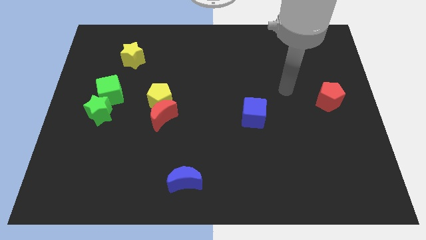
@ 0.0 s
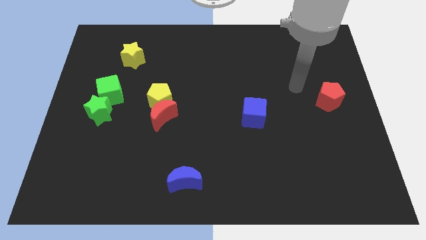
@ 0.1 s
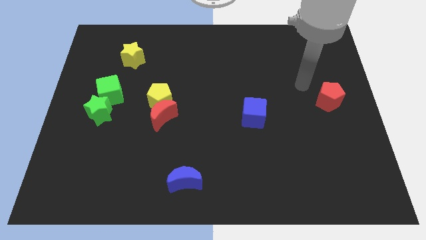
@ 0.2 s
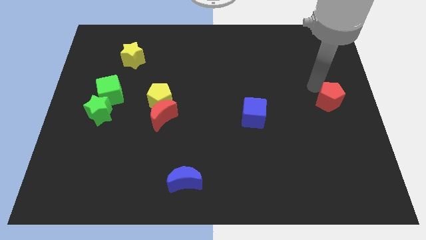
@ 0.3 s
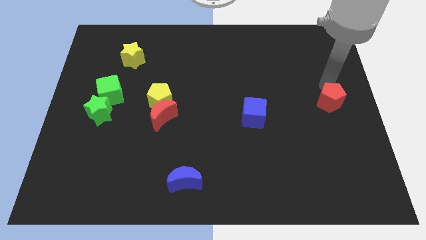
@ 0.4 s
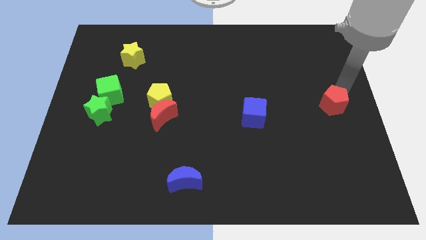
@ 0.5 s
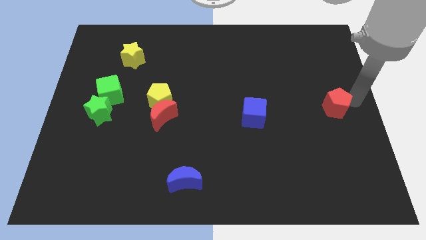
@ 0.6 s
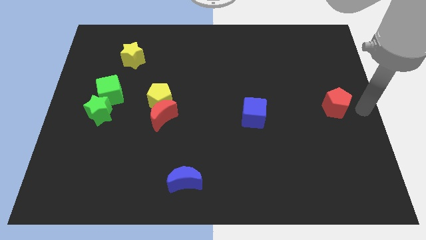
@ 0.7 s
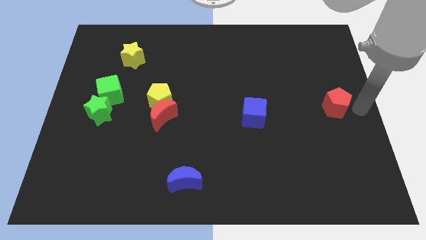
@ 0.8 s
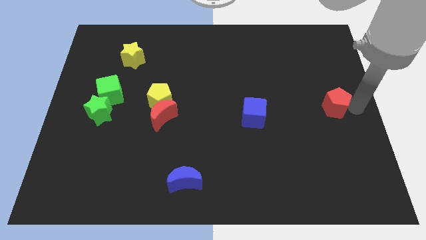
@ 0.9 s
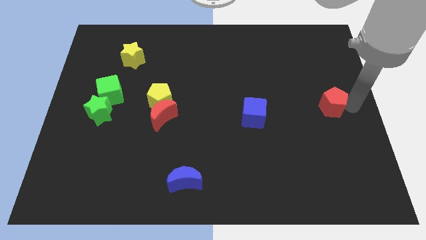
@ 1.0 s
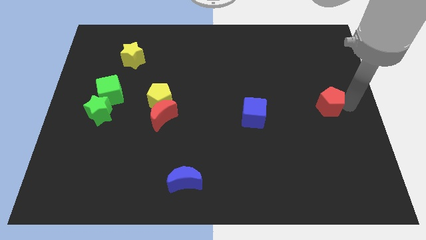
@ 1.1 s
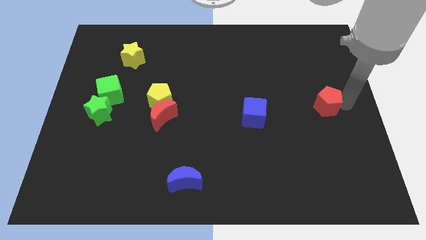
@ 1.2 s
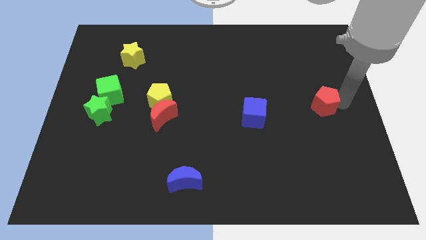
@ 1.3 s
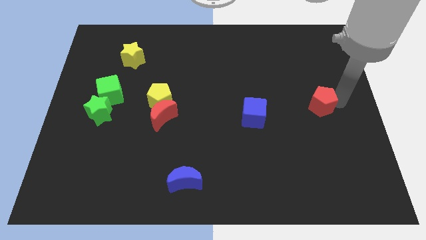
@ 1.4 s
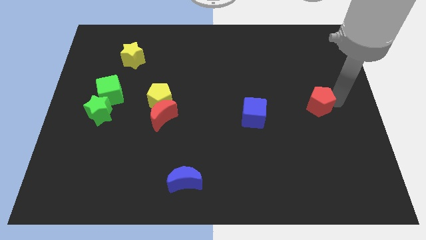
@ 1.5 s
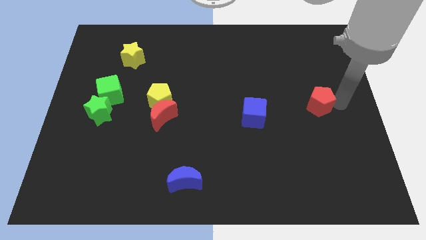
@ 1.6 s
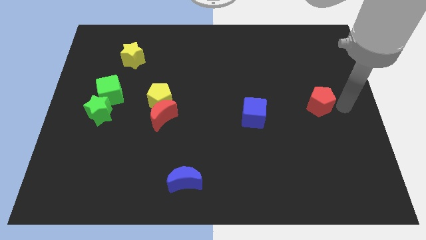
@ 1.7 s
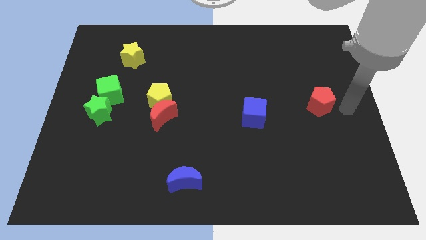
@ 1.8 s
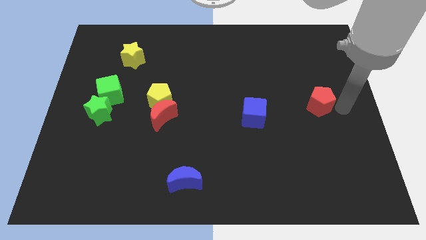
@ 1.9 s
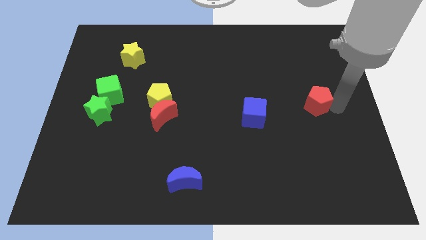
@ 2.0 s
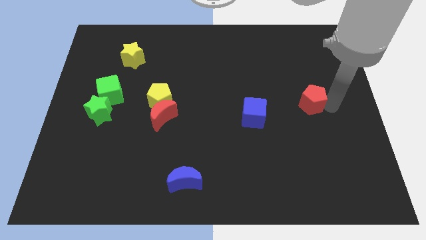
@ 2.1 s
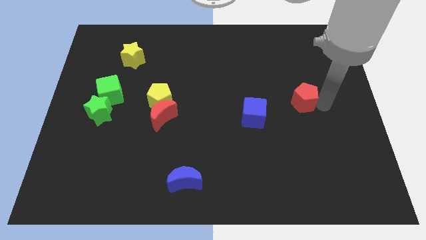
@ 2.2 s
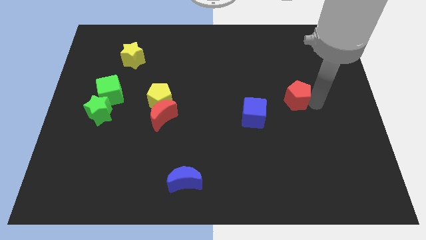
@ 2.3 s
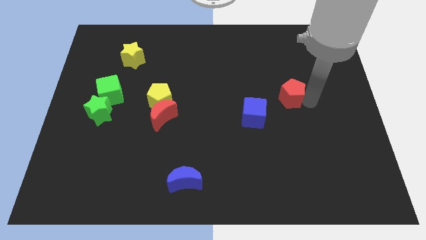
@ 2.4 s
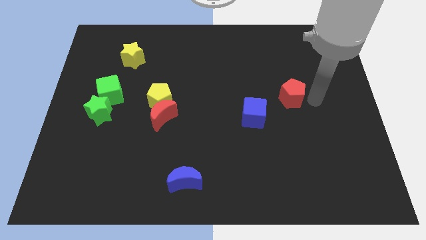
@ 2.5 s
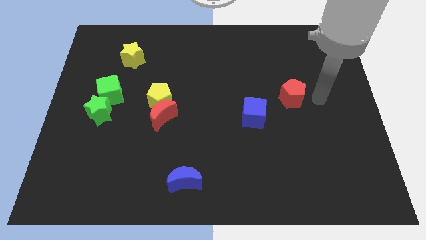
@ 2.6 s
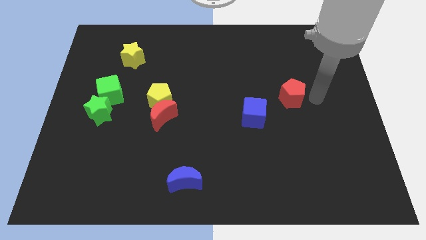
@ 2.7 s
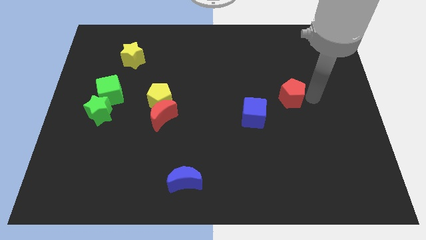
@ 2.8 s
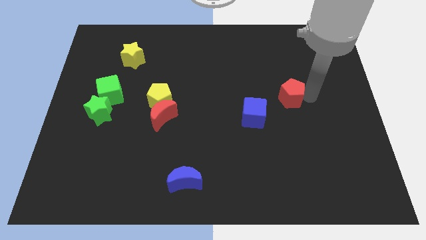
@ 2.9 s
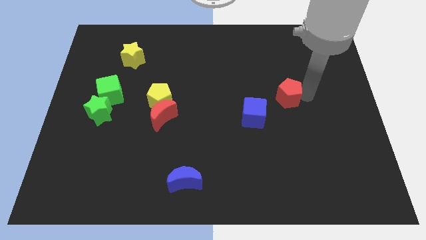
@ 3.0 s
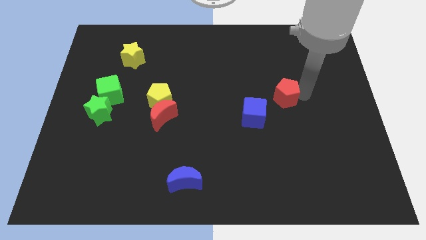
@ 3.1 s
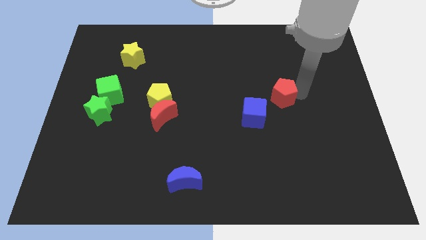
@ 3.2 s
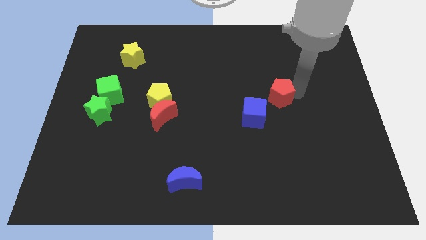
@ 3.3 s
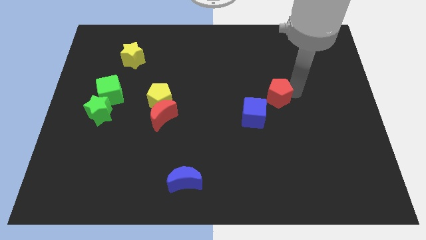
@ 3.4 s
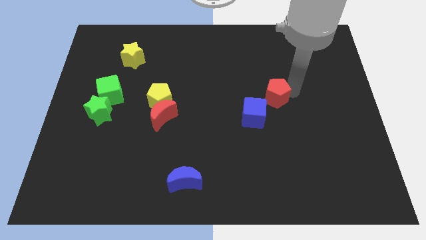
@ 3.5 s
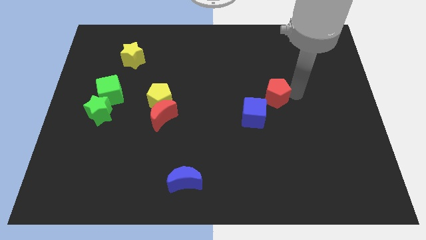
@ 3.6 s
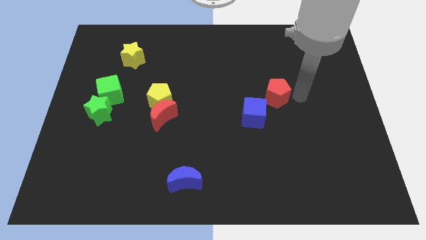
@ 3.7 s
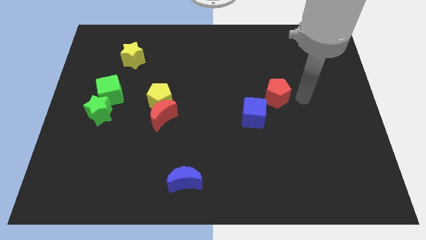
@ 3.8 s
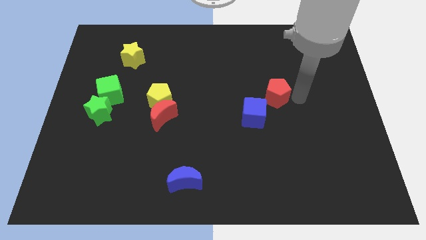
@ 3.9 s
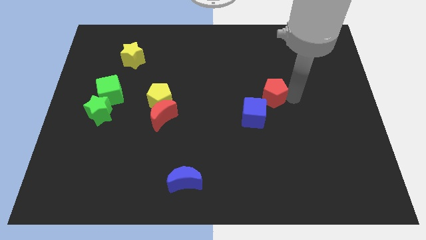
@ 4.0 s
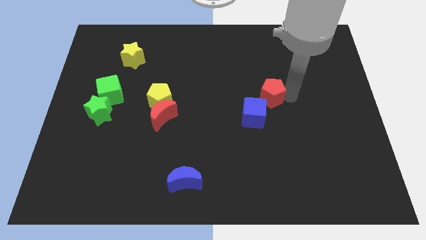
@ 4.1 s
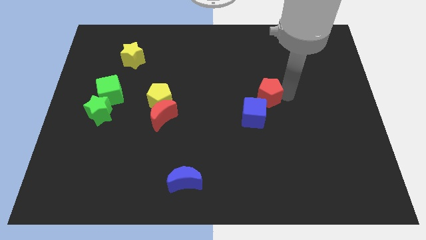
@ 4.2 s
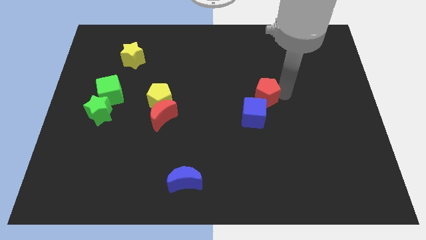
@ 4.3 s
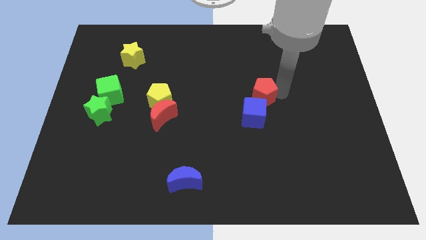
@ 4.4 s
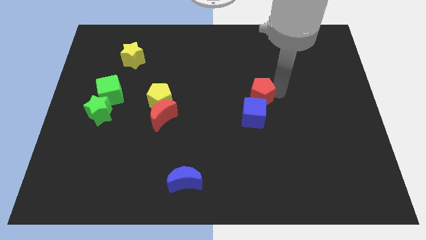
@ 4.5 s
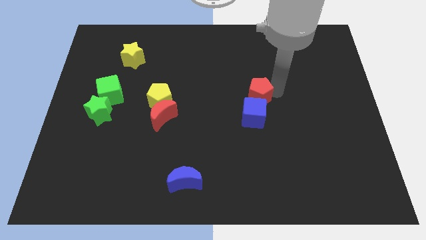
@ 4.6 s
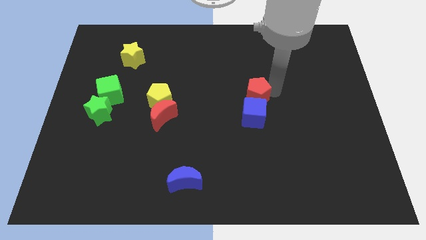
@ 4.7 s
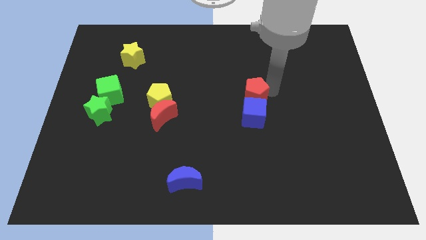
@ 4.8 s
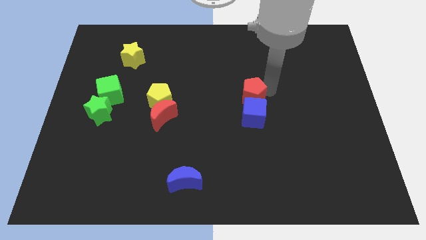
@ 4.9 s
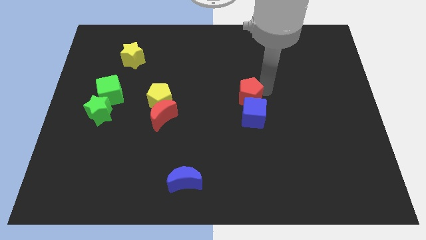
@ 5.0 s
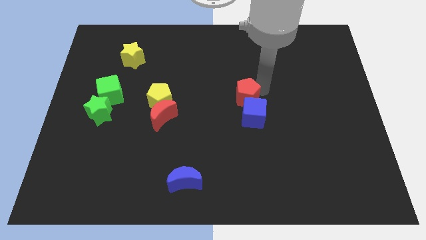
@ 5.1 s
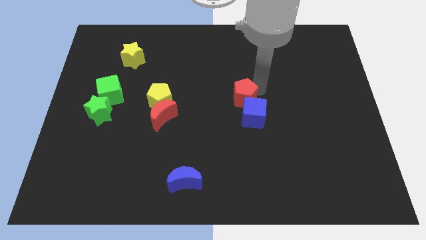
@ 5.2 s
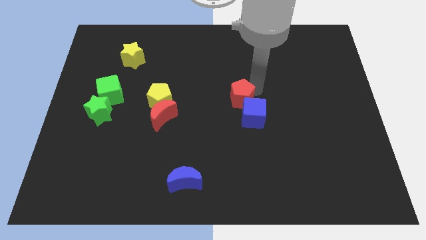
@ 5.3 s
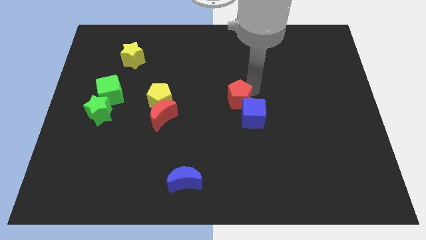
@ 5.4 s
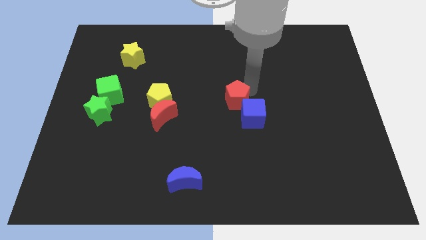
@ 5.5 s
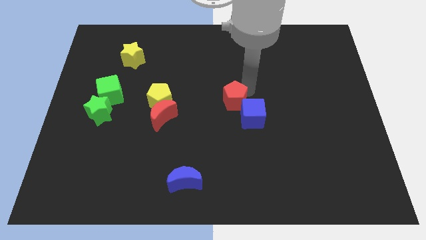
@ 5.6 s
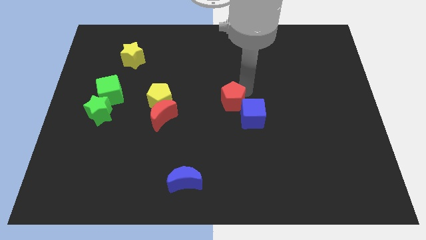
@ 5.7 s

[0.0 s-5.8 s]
slide the red pentagon just left of the blue cube

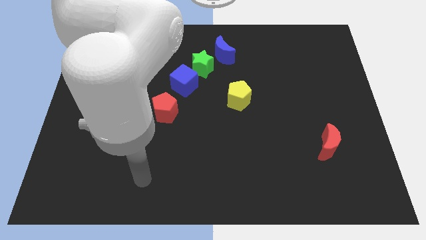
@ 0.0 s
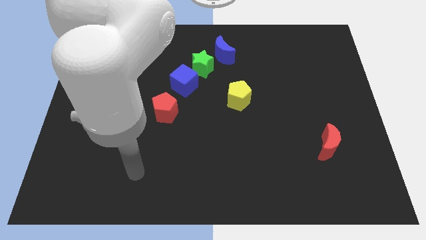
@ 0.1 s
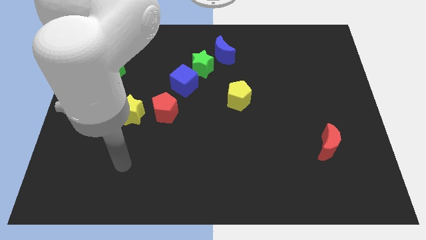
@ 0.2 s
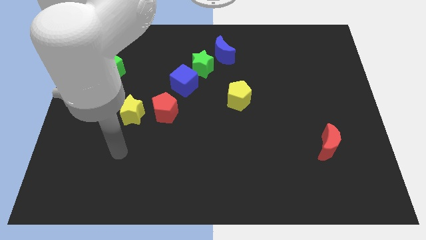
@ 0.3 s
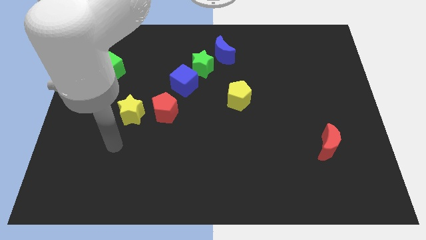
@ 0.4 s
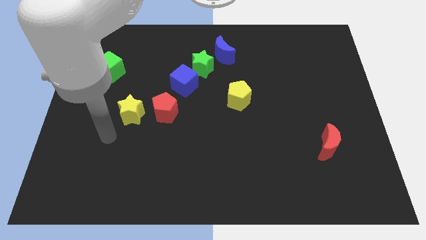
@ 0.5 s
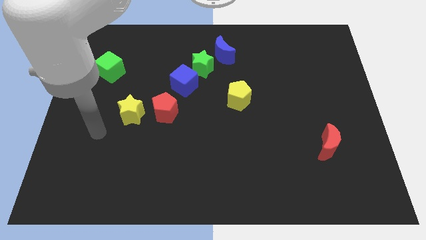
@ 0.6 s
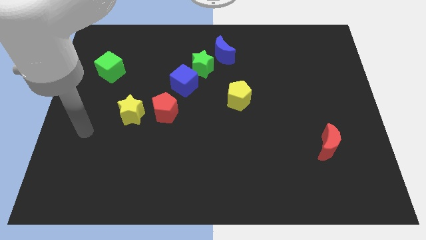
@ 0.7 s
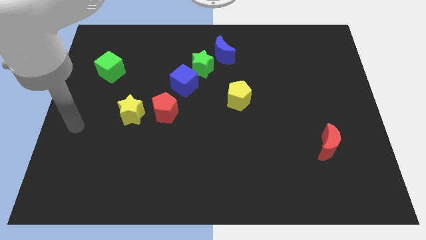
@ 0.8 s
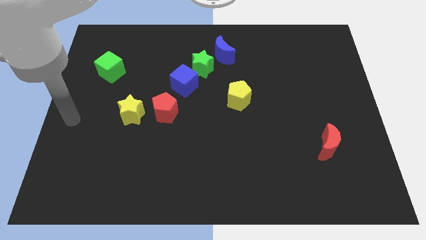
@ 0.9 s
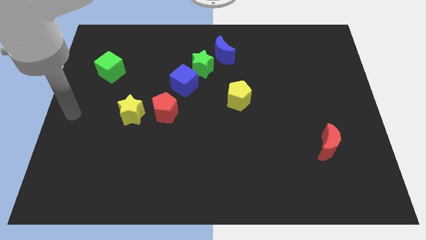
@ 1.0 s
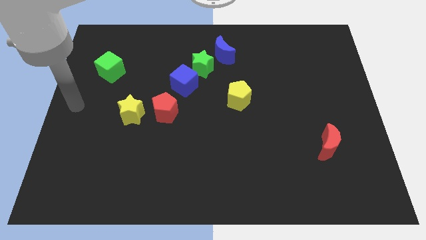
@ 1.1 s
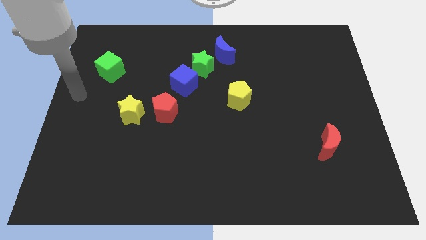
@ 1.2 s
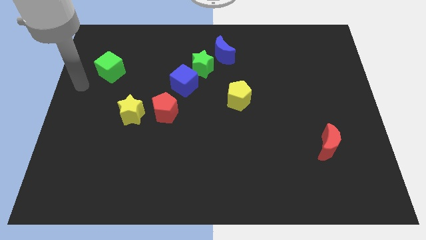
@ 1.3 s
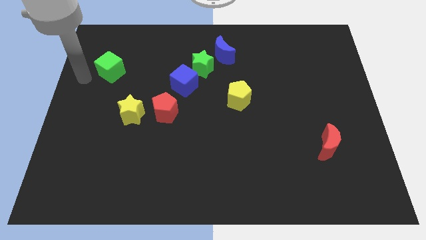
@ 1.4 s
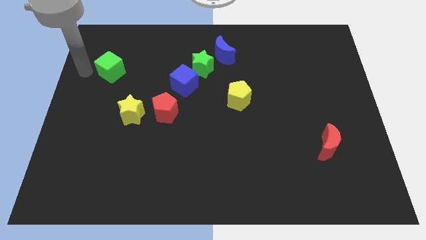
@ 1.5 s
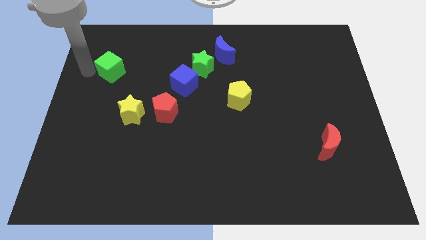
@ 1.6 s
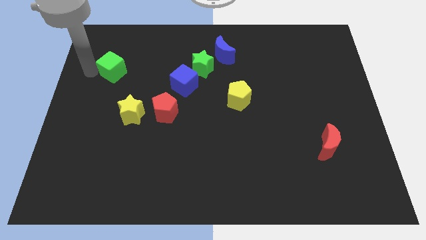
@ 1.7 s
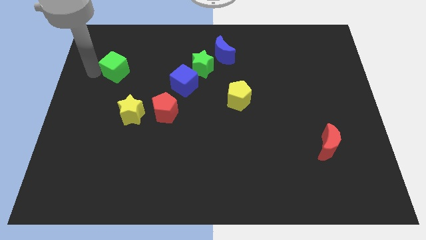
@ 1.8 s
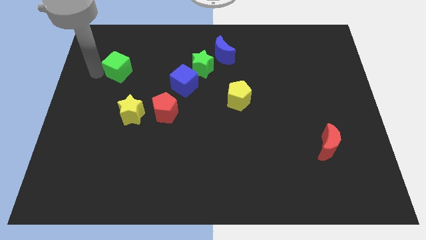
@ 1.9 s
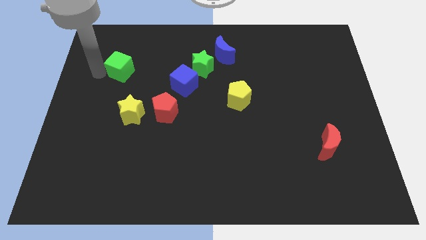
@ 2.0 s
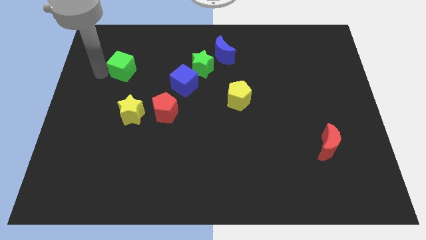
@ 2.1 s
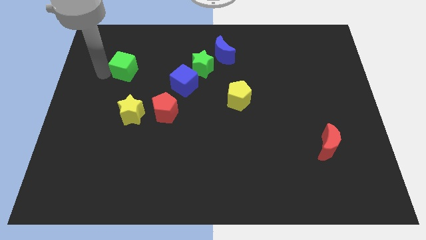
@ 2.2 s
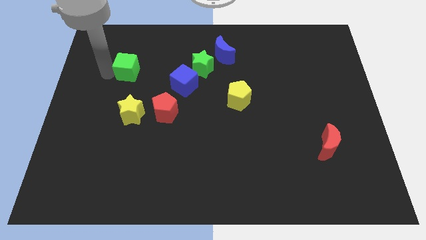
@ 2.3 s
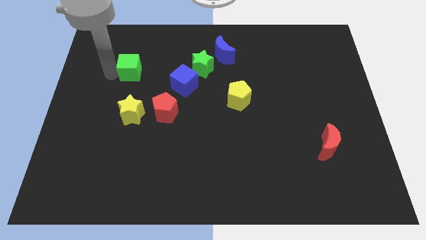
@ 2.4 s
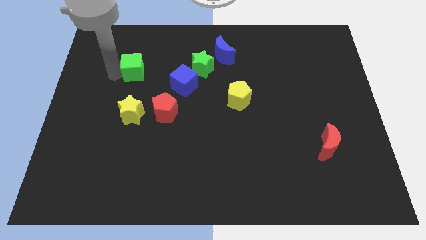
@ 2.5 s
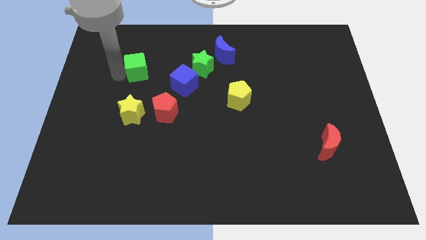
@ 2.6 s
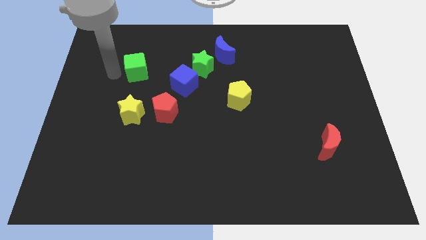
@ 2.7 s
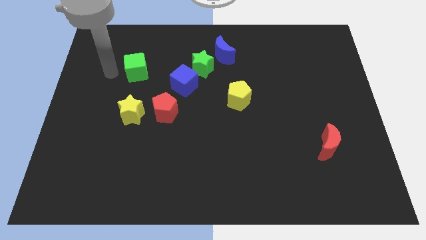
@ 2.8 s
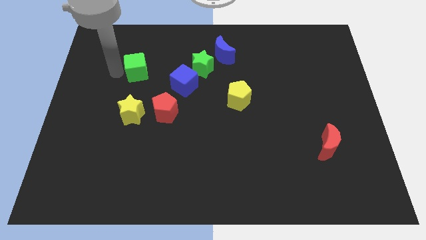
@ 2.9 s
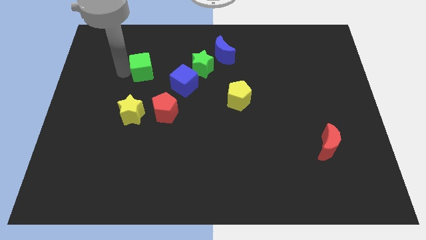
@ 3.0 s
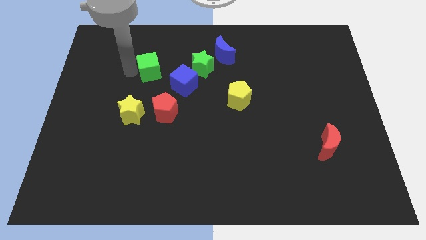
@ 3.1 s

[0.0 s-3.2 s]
put the green cube to the top left side of the blue cube
